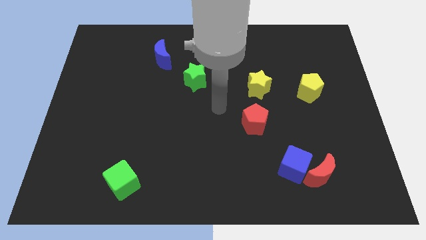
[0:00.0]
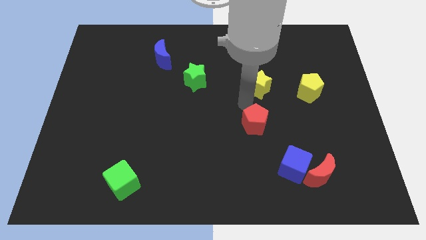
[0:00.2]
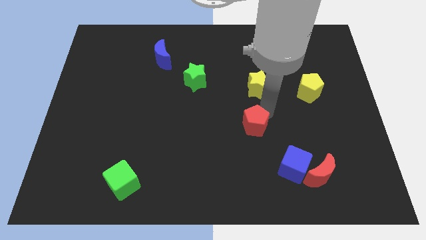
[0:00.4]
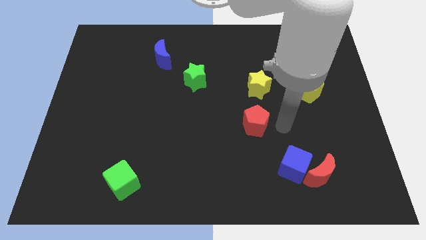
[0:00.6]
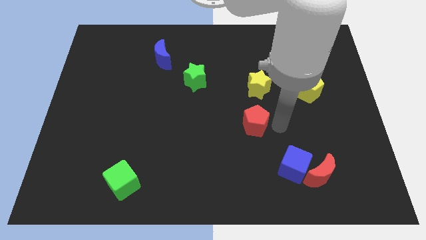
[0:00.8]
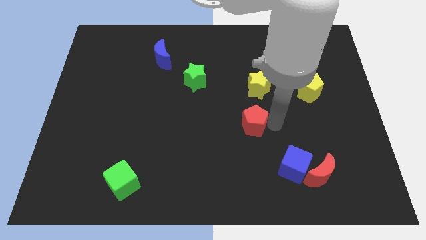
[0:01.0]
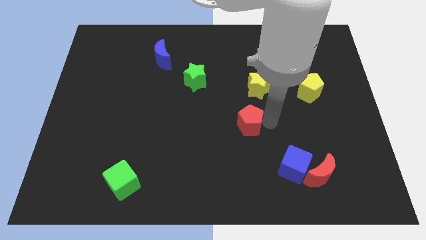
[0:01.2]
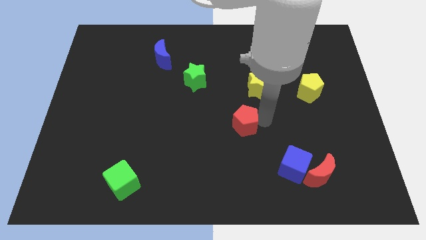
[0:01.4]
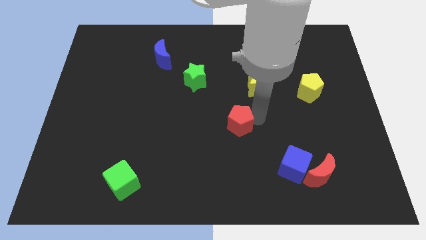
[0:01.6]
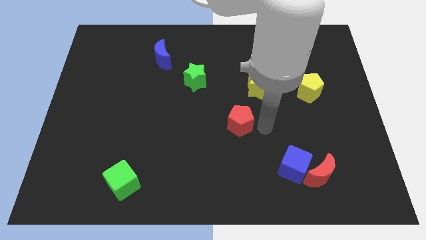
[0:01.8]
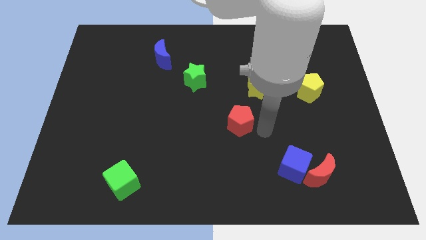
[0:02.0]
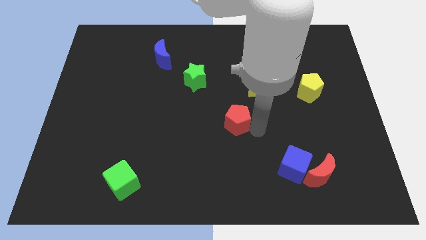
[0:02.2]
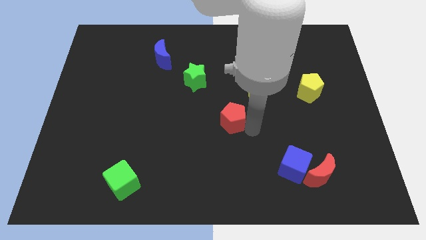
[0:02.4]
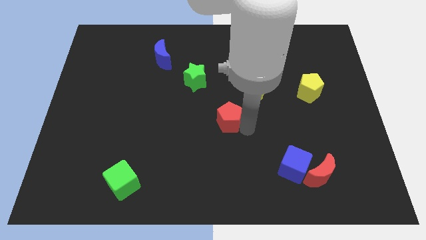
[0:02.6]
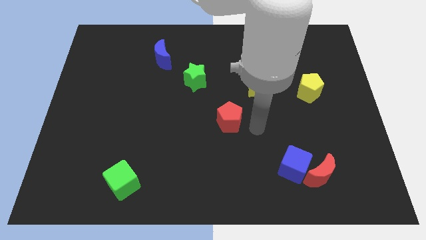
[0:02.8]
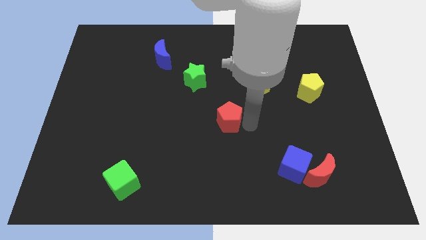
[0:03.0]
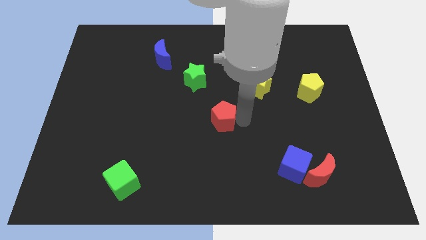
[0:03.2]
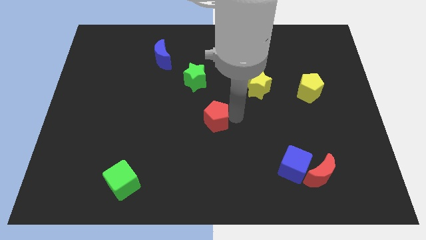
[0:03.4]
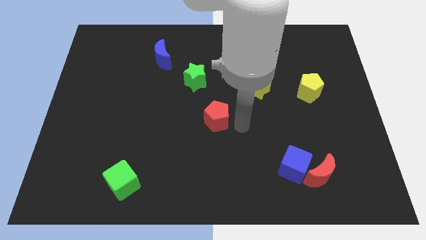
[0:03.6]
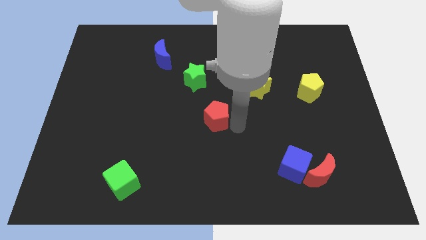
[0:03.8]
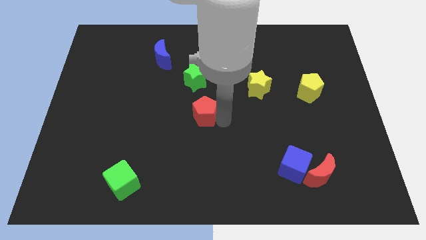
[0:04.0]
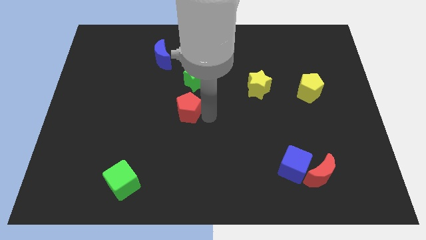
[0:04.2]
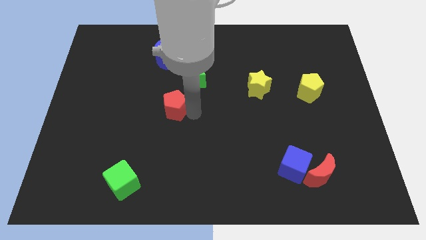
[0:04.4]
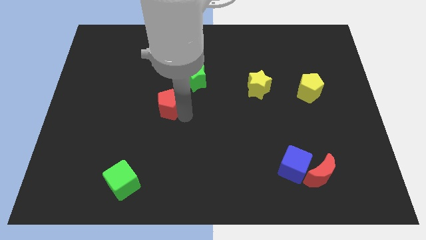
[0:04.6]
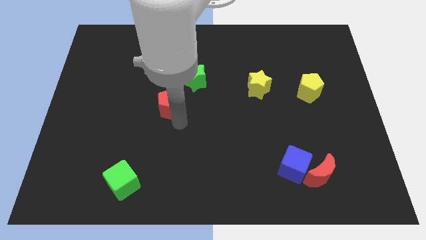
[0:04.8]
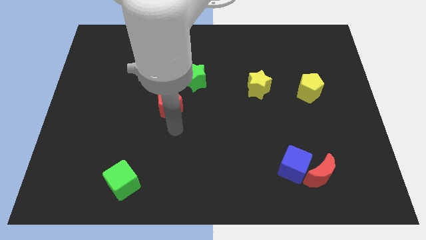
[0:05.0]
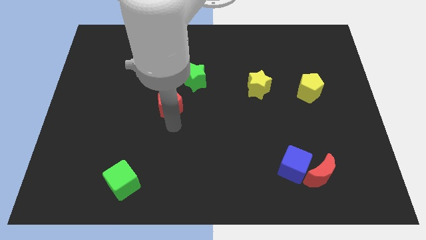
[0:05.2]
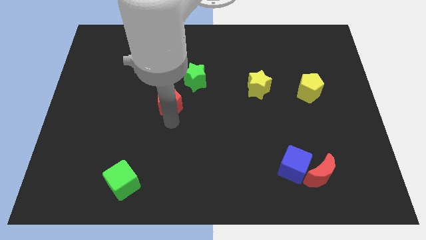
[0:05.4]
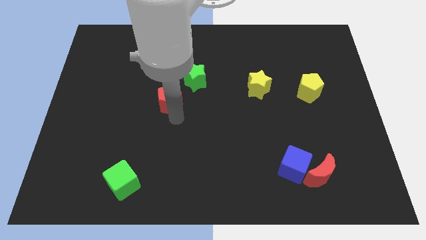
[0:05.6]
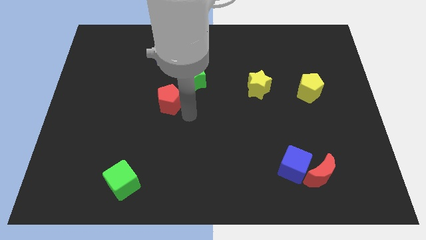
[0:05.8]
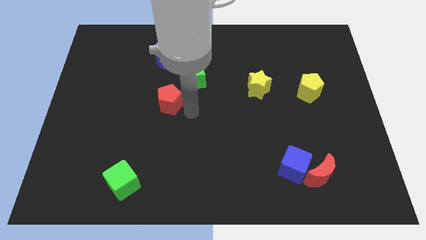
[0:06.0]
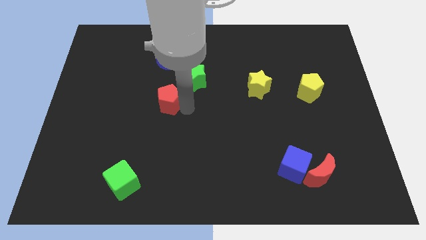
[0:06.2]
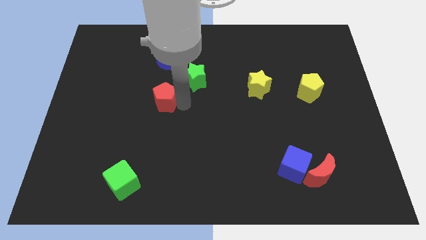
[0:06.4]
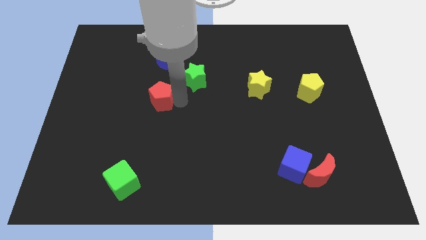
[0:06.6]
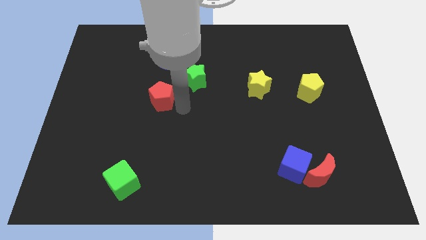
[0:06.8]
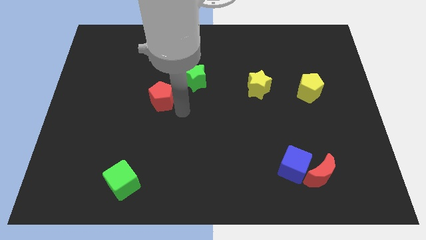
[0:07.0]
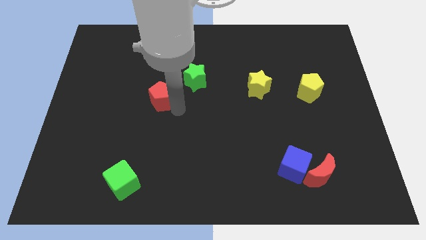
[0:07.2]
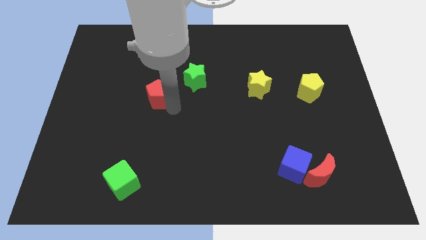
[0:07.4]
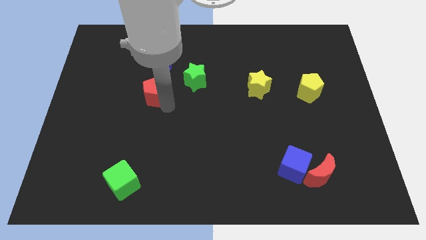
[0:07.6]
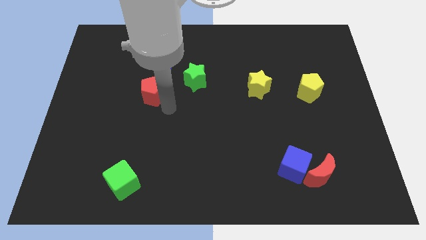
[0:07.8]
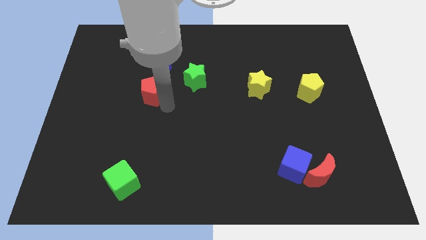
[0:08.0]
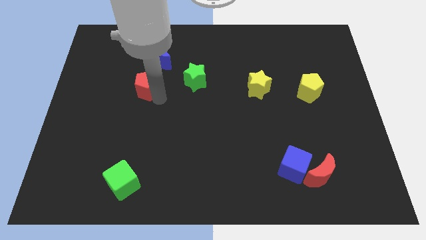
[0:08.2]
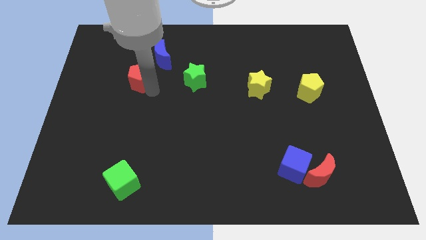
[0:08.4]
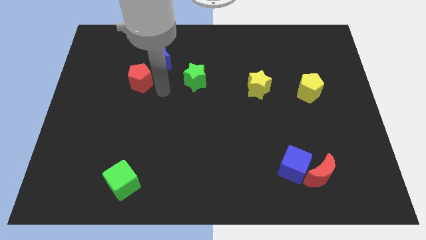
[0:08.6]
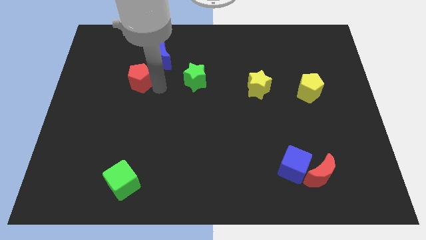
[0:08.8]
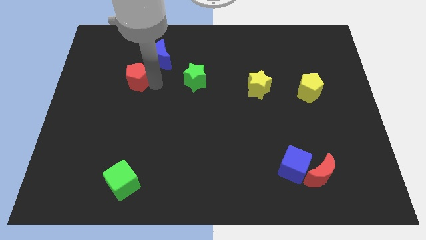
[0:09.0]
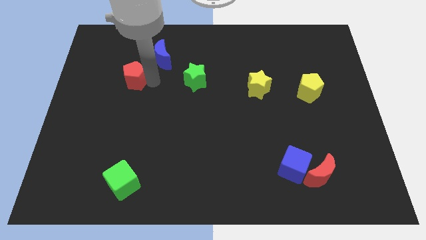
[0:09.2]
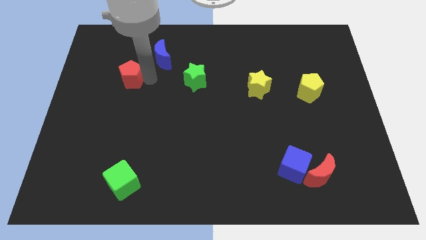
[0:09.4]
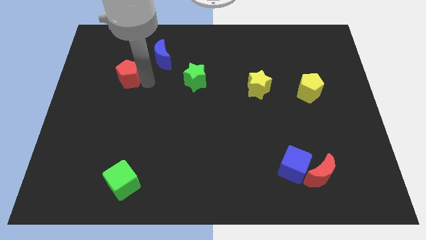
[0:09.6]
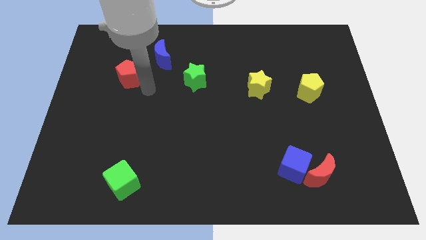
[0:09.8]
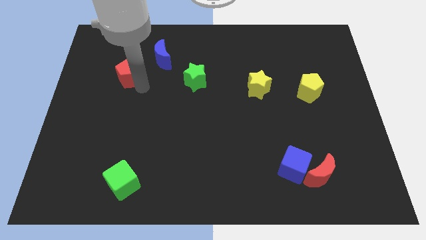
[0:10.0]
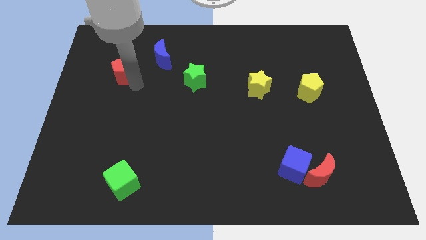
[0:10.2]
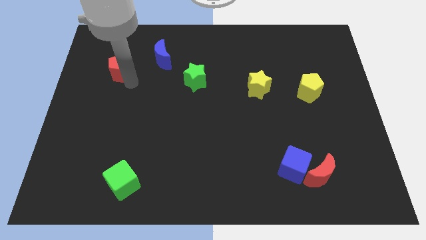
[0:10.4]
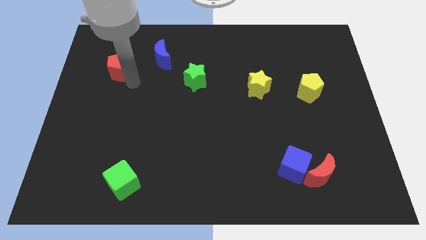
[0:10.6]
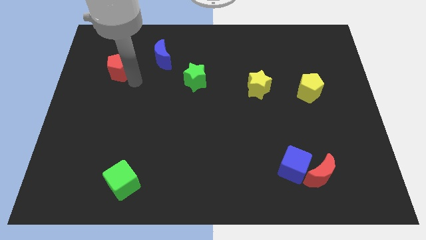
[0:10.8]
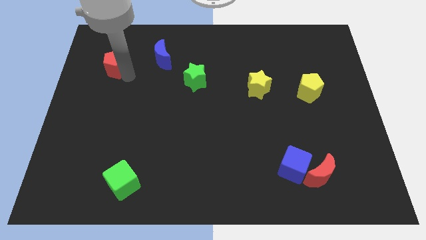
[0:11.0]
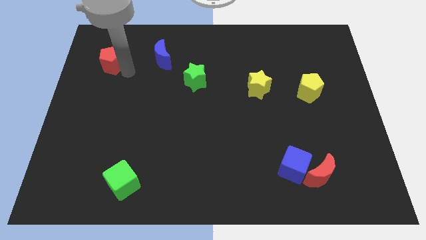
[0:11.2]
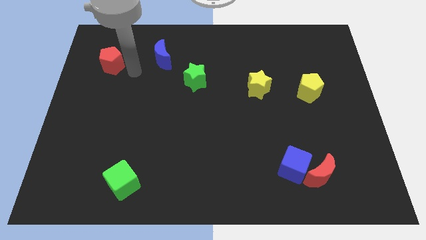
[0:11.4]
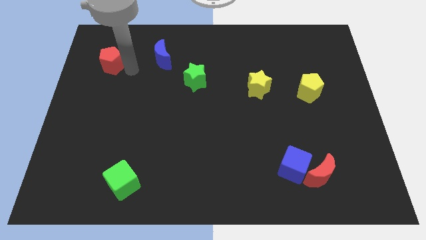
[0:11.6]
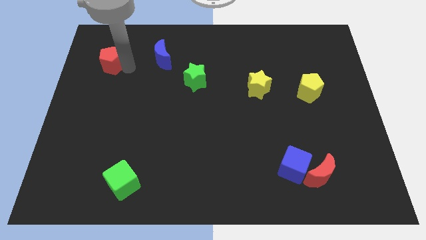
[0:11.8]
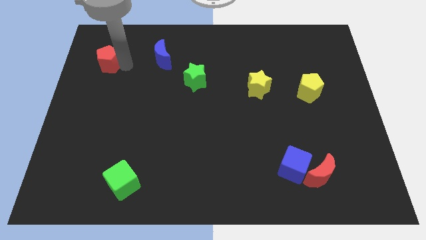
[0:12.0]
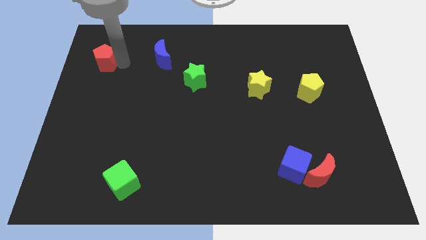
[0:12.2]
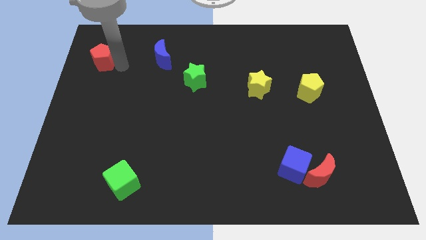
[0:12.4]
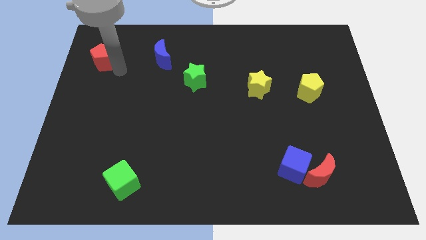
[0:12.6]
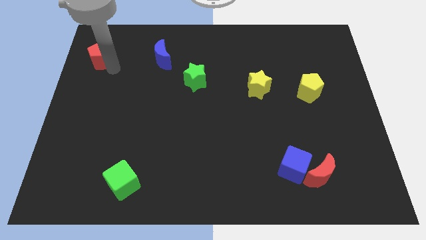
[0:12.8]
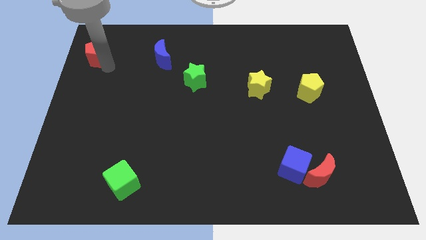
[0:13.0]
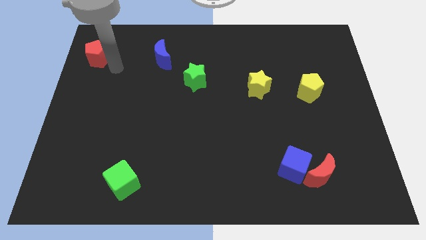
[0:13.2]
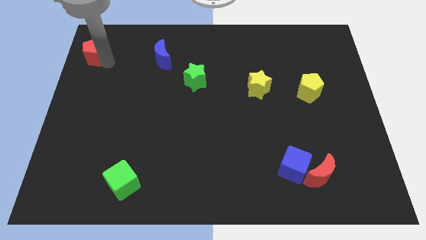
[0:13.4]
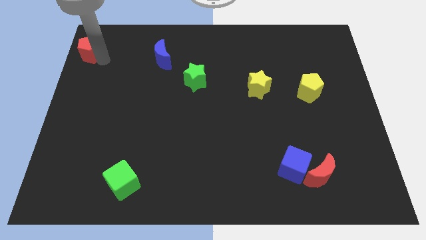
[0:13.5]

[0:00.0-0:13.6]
move the red pentagon to the top left
